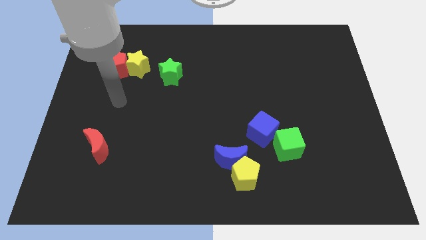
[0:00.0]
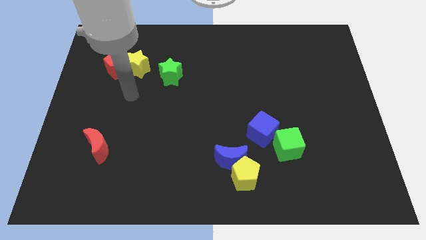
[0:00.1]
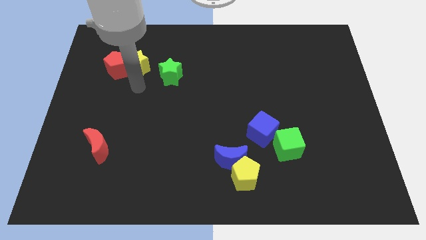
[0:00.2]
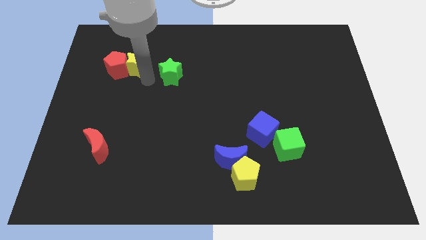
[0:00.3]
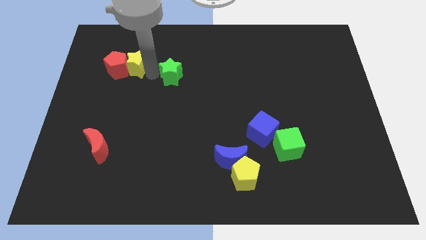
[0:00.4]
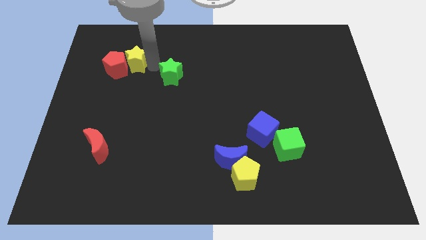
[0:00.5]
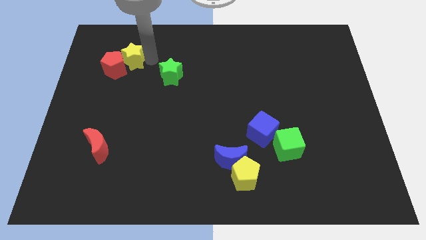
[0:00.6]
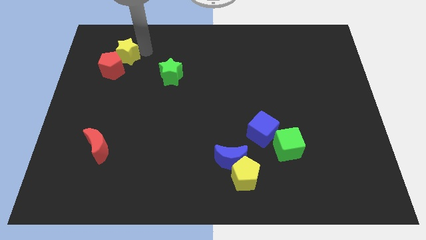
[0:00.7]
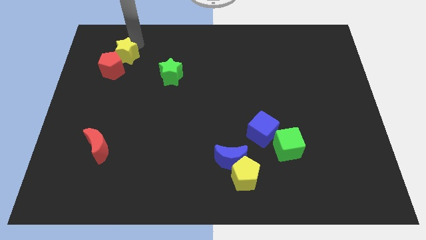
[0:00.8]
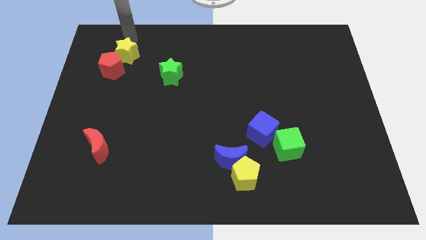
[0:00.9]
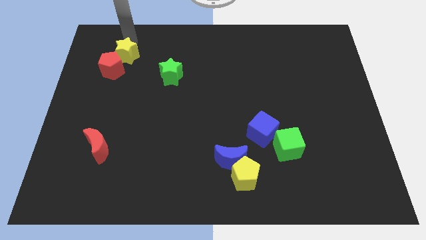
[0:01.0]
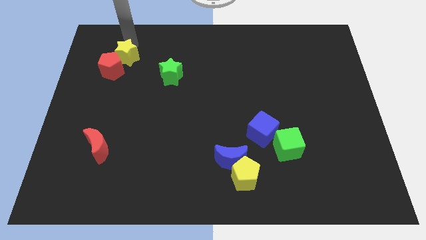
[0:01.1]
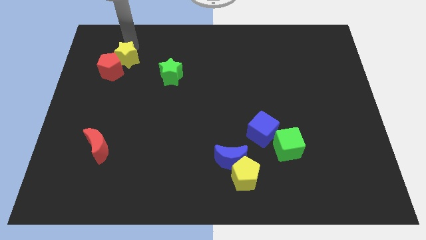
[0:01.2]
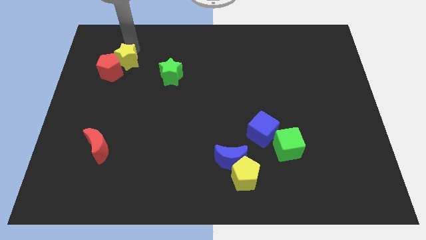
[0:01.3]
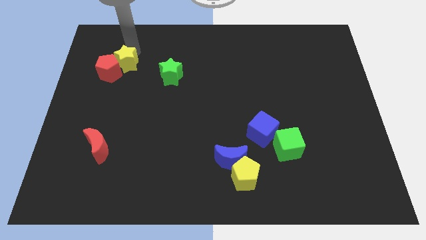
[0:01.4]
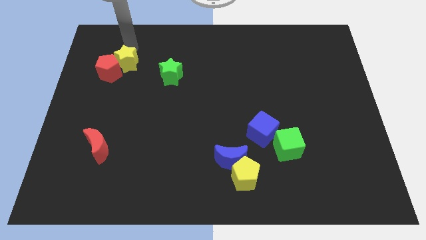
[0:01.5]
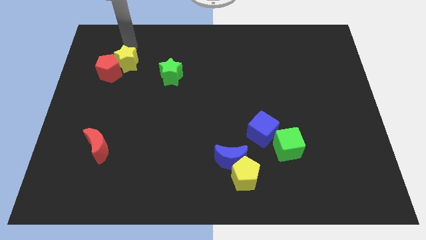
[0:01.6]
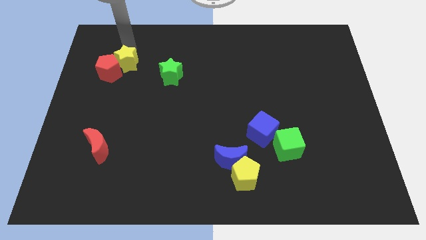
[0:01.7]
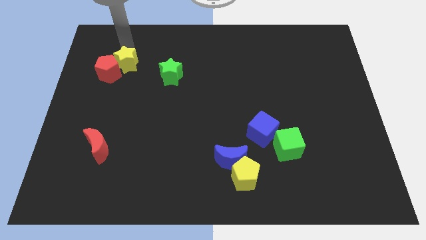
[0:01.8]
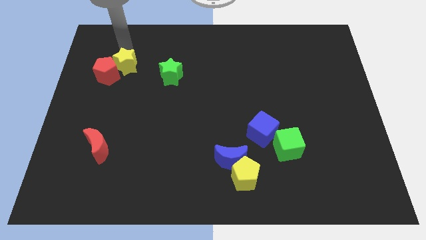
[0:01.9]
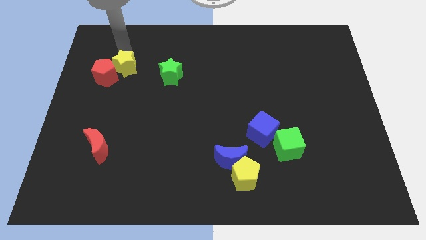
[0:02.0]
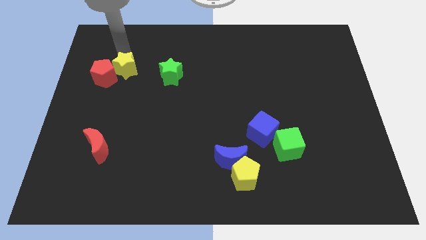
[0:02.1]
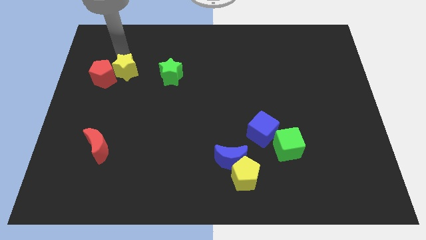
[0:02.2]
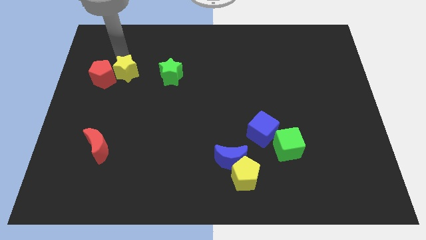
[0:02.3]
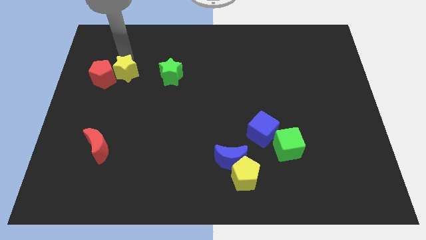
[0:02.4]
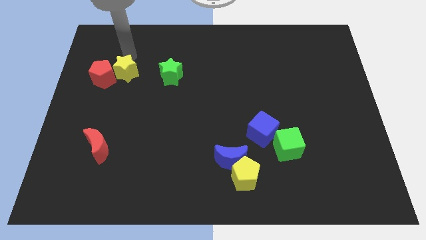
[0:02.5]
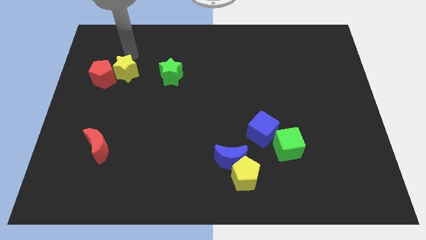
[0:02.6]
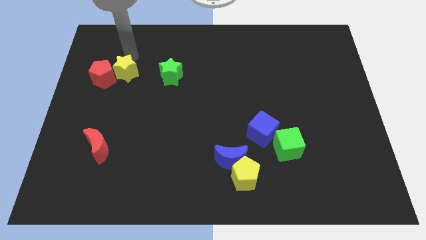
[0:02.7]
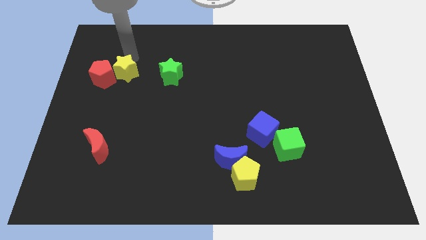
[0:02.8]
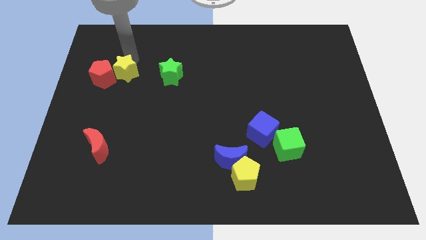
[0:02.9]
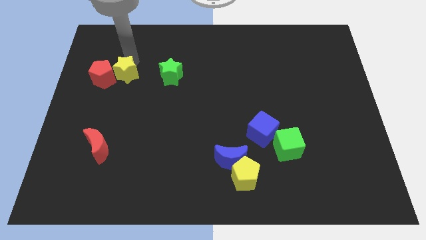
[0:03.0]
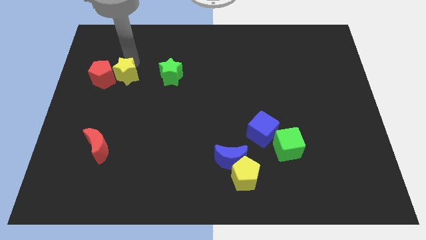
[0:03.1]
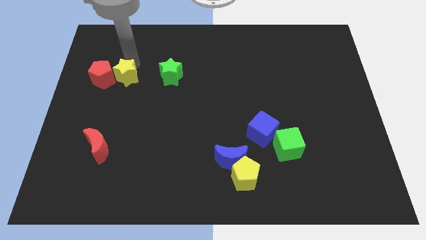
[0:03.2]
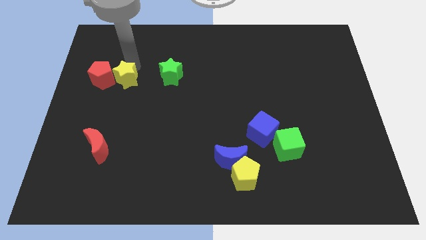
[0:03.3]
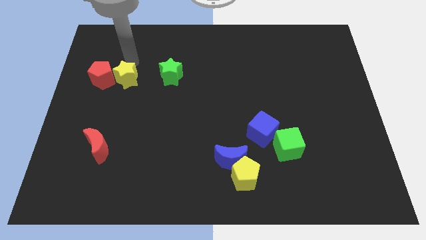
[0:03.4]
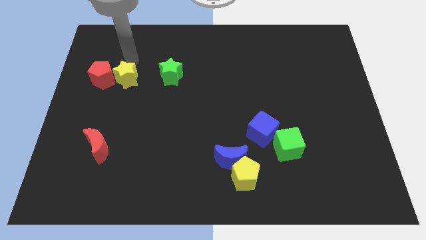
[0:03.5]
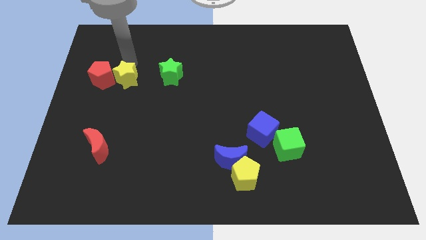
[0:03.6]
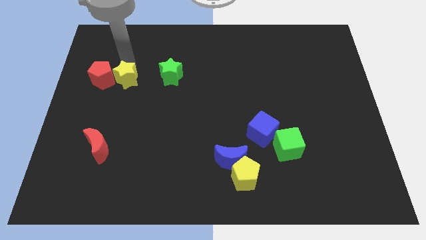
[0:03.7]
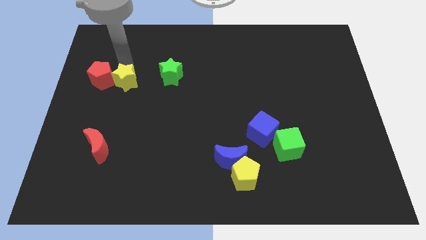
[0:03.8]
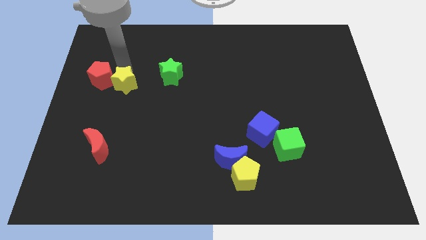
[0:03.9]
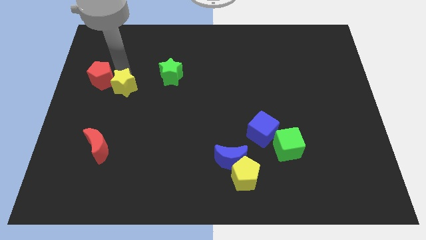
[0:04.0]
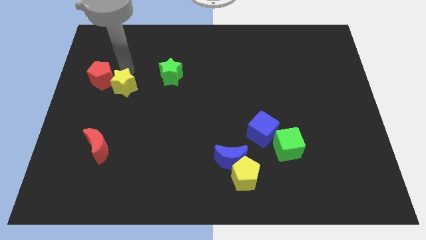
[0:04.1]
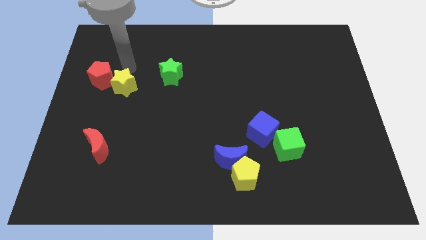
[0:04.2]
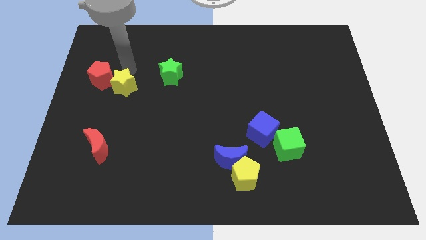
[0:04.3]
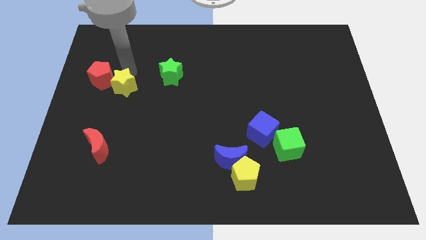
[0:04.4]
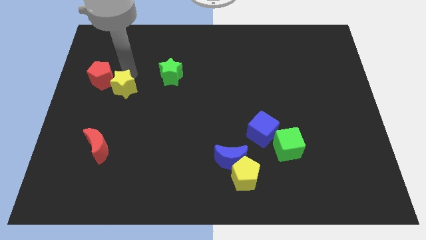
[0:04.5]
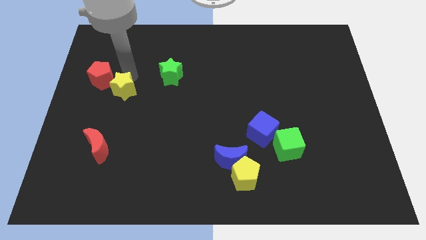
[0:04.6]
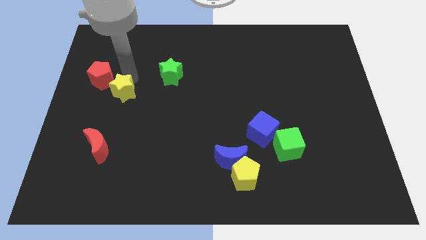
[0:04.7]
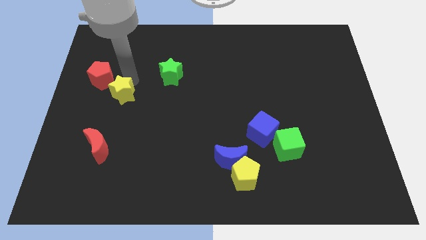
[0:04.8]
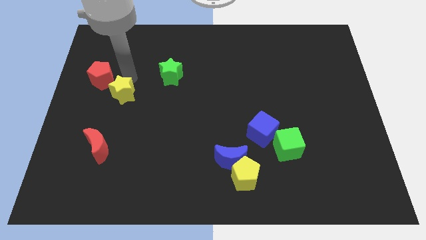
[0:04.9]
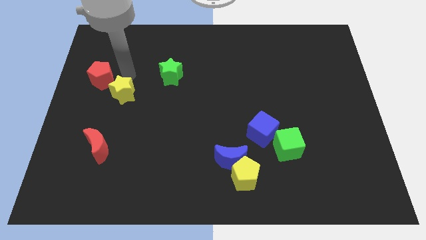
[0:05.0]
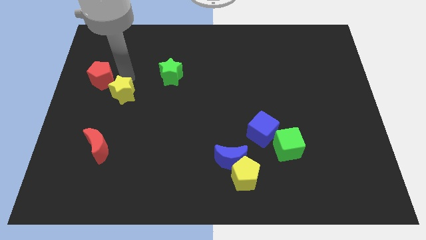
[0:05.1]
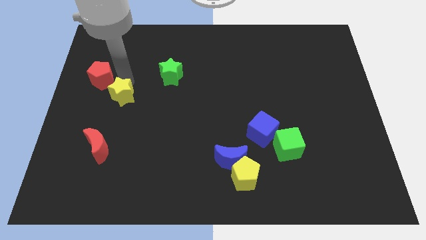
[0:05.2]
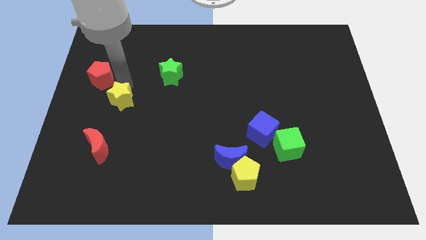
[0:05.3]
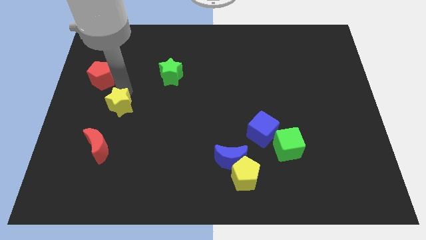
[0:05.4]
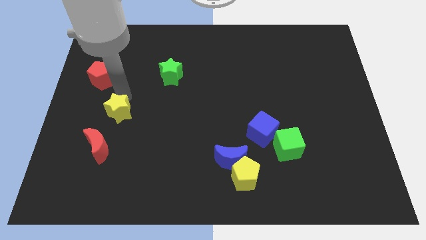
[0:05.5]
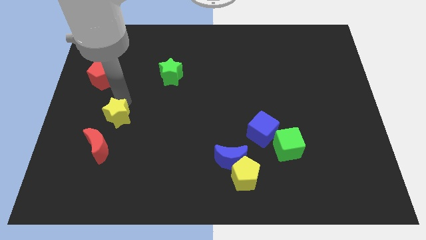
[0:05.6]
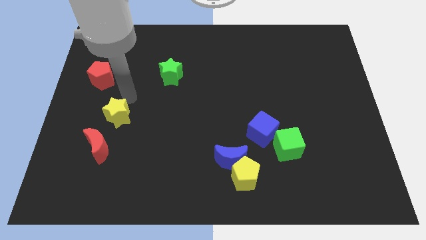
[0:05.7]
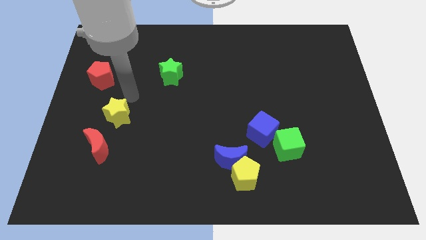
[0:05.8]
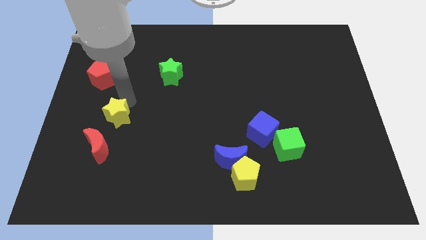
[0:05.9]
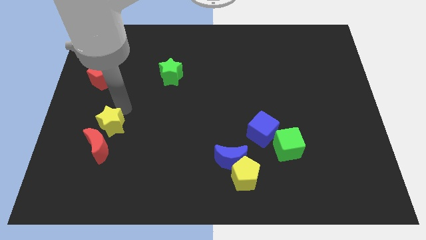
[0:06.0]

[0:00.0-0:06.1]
slide the yellow star towards the red moon
